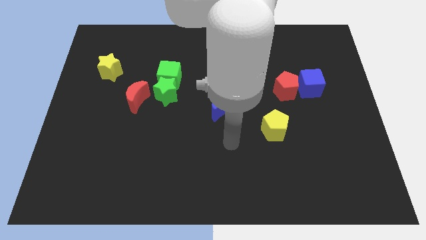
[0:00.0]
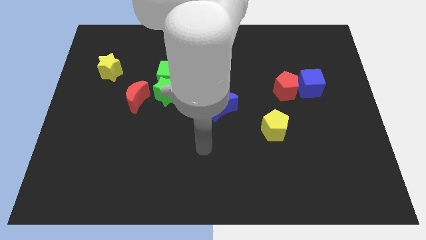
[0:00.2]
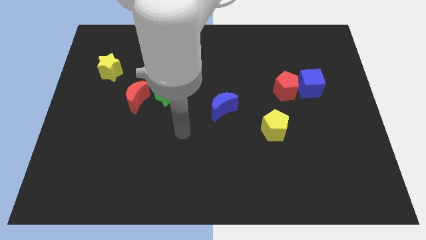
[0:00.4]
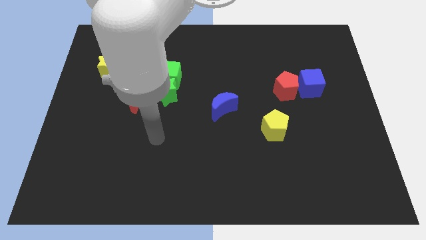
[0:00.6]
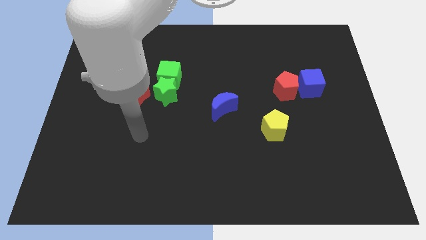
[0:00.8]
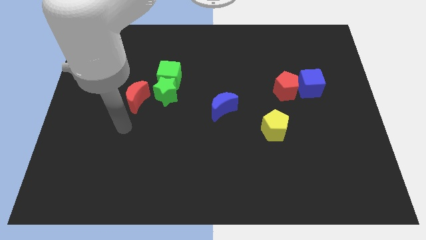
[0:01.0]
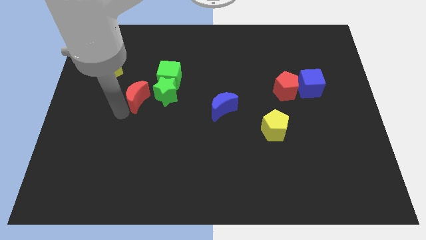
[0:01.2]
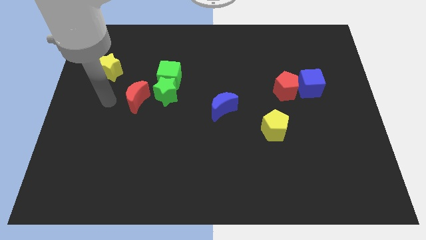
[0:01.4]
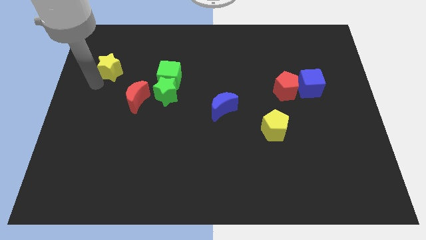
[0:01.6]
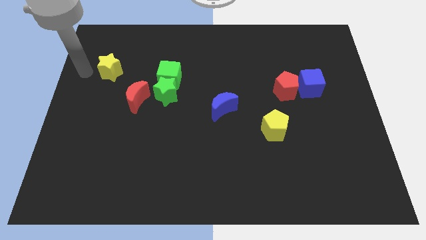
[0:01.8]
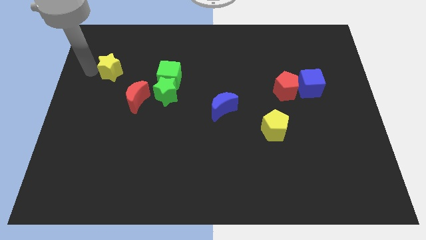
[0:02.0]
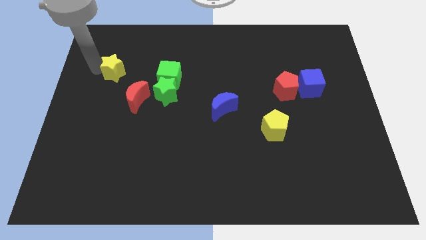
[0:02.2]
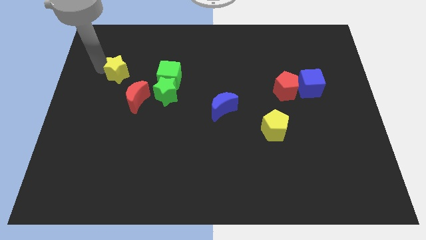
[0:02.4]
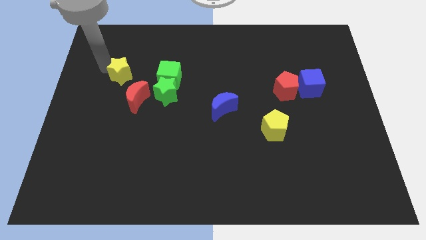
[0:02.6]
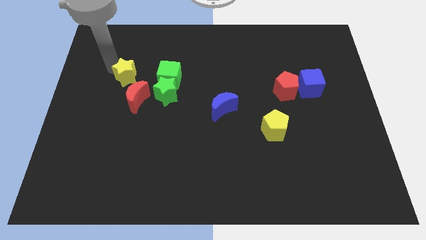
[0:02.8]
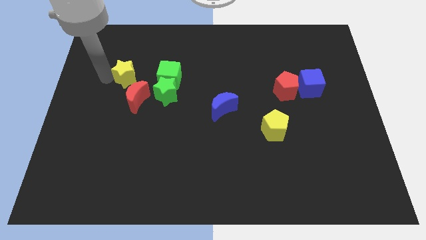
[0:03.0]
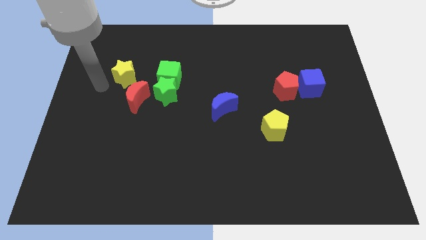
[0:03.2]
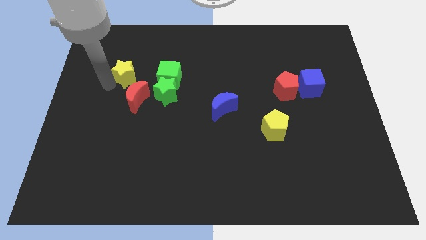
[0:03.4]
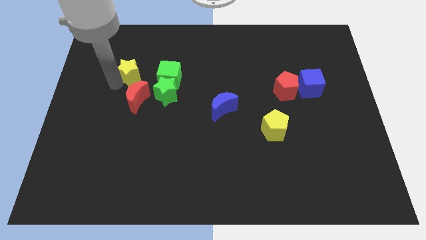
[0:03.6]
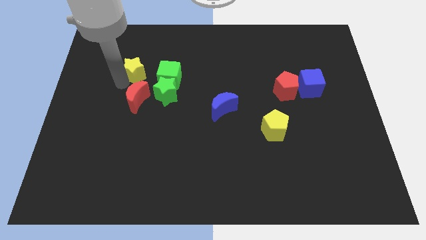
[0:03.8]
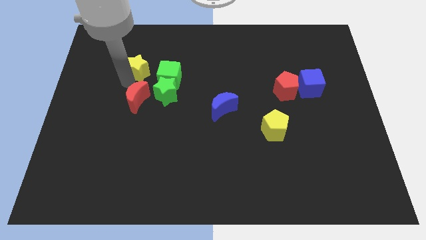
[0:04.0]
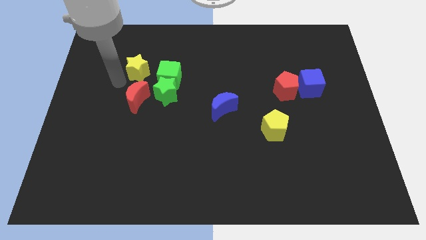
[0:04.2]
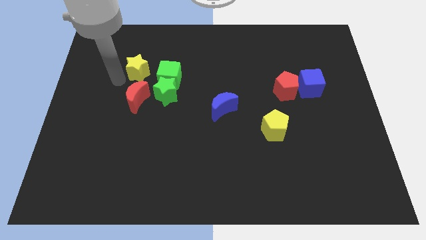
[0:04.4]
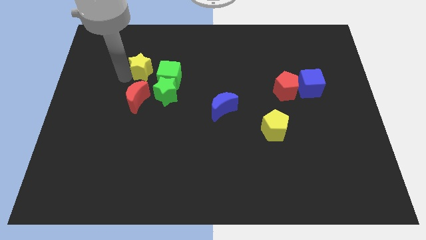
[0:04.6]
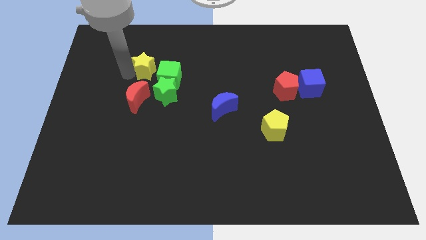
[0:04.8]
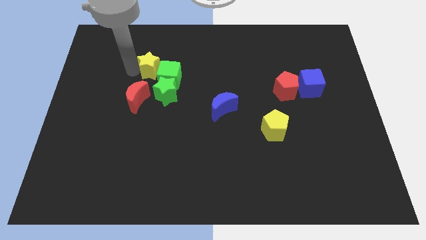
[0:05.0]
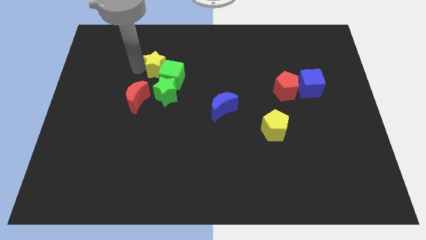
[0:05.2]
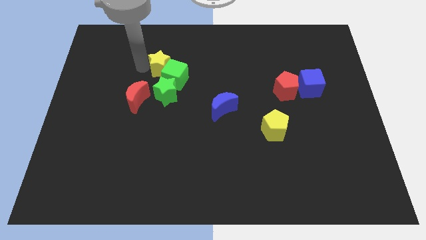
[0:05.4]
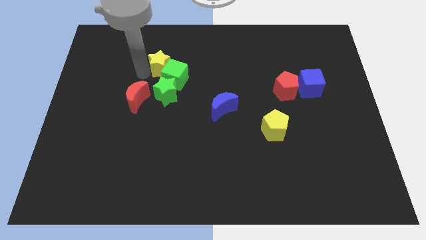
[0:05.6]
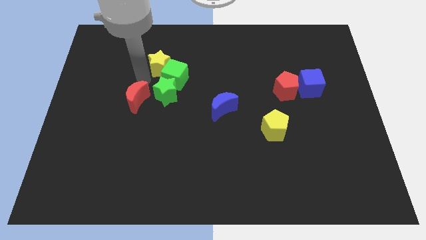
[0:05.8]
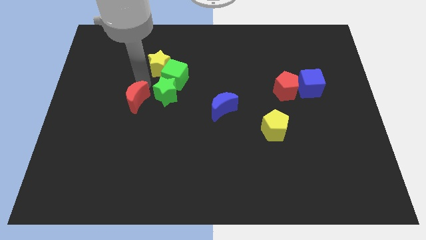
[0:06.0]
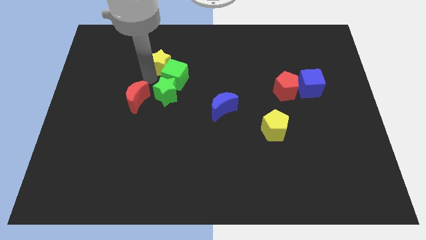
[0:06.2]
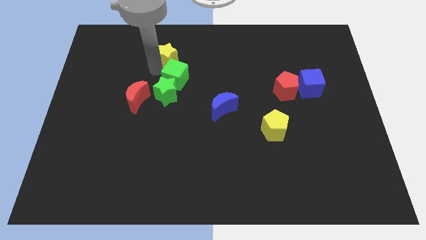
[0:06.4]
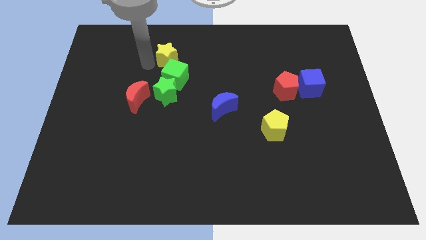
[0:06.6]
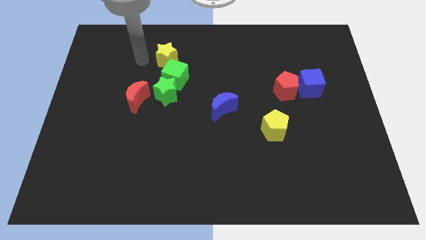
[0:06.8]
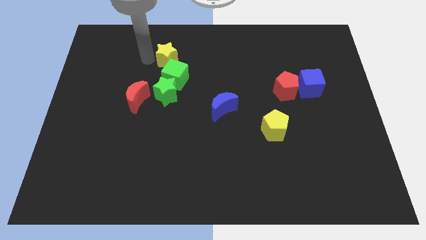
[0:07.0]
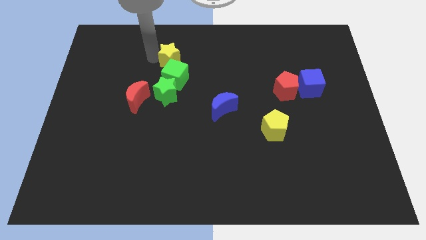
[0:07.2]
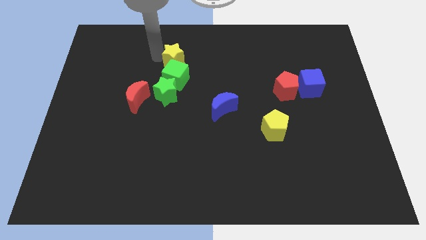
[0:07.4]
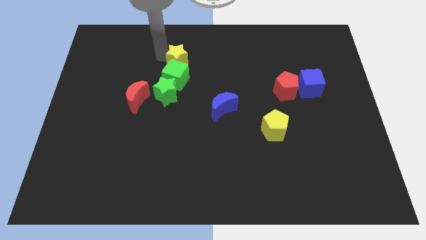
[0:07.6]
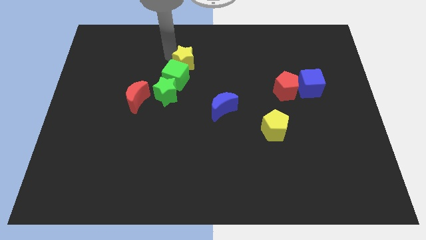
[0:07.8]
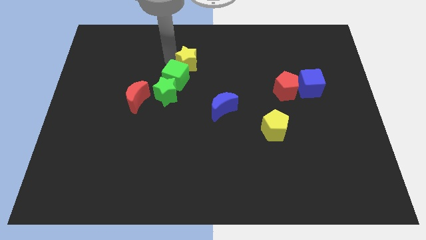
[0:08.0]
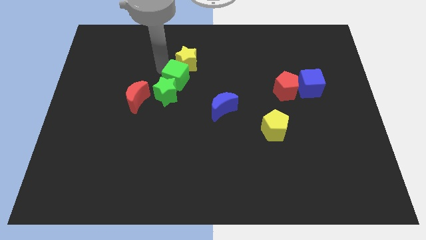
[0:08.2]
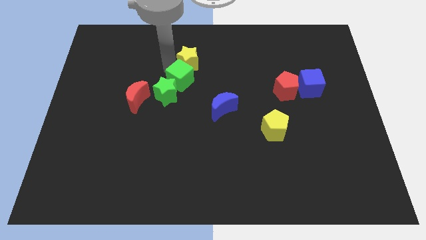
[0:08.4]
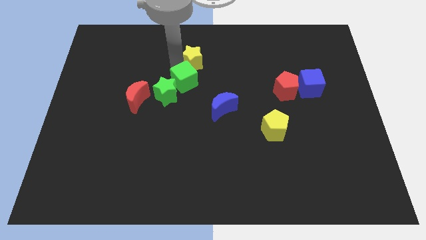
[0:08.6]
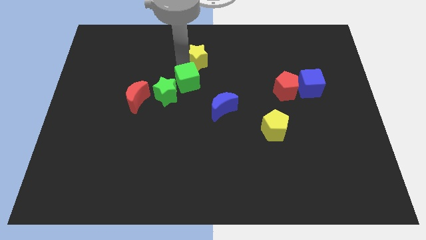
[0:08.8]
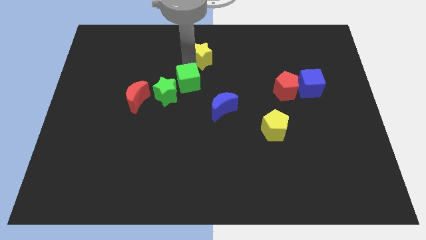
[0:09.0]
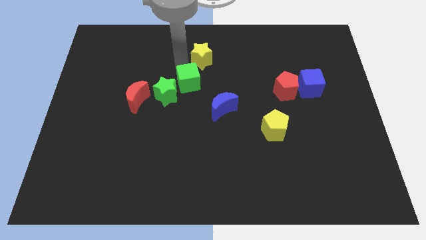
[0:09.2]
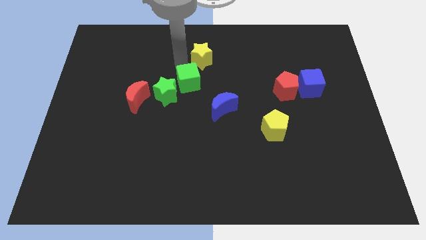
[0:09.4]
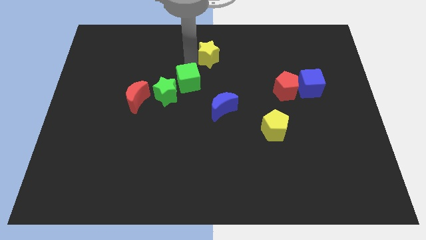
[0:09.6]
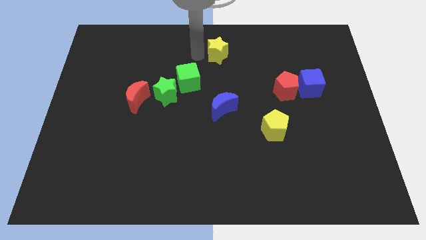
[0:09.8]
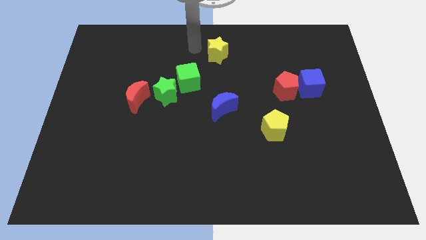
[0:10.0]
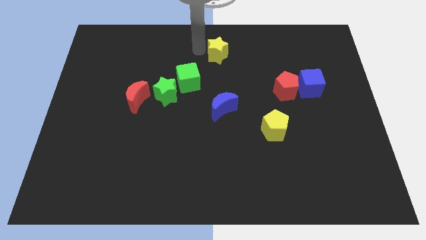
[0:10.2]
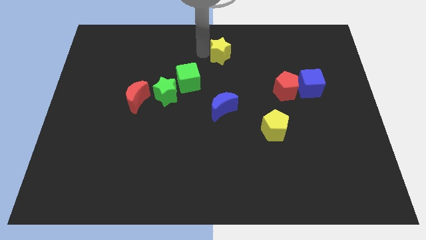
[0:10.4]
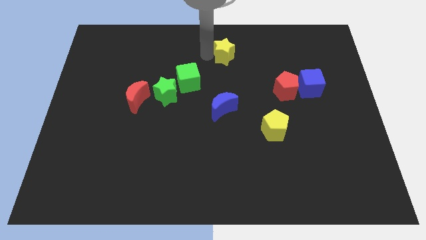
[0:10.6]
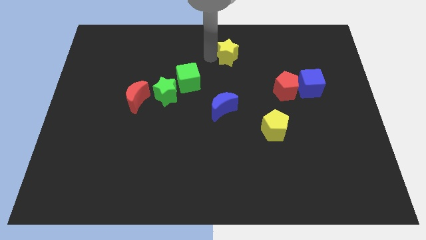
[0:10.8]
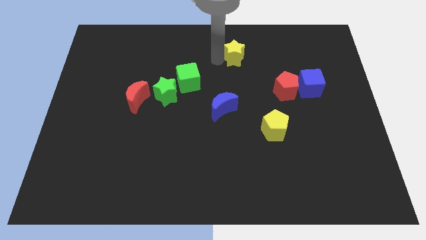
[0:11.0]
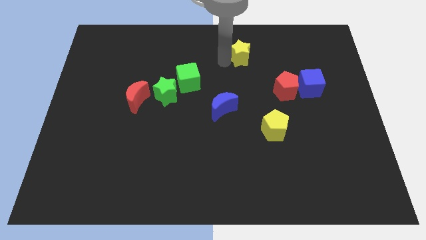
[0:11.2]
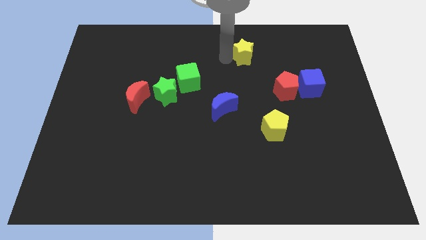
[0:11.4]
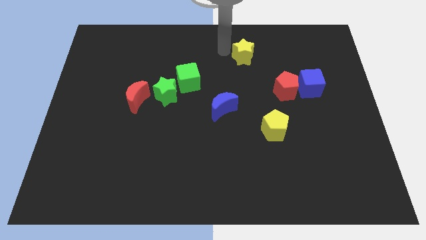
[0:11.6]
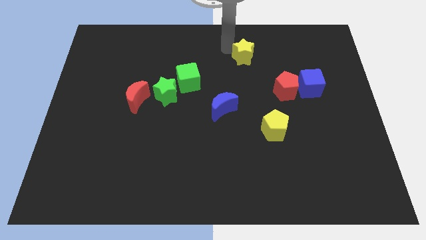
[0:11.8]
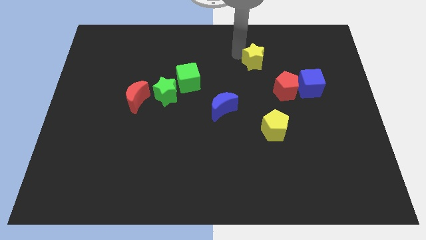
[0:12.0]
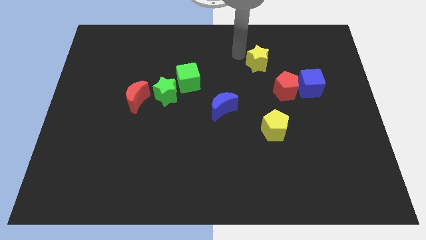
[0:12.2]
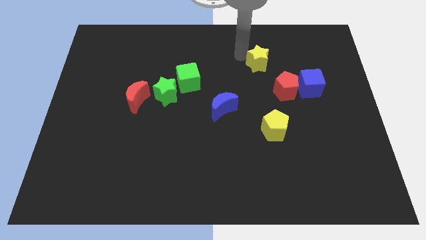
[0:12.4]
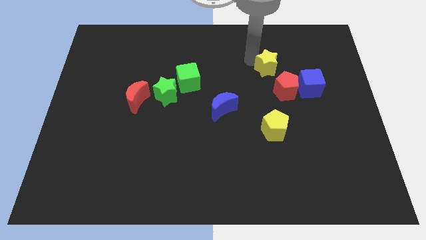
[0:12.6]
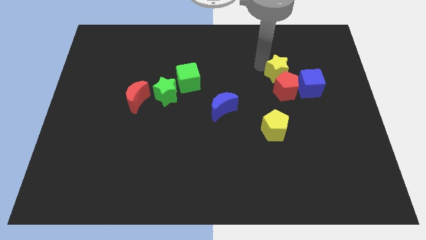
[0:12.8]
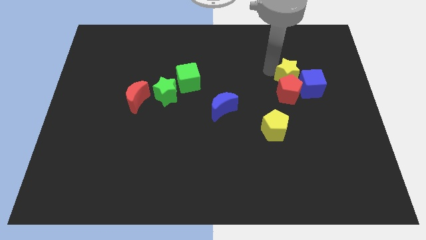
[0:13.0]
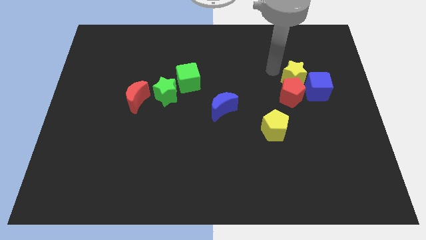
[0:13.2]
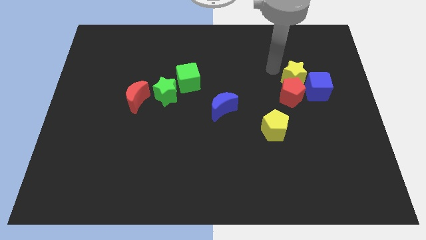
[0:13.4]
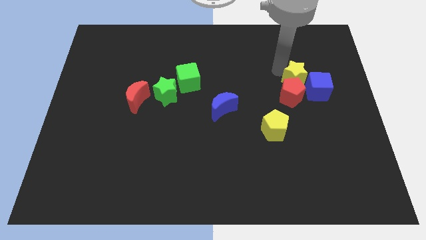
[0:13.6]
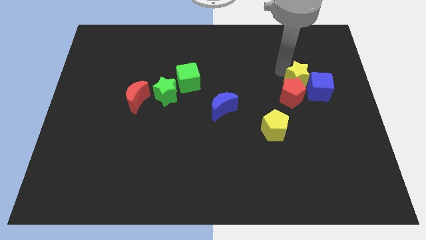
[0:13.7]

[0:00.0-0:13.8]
slide the yellow star to the blue cube

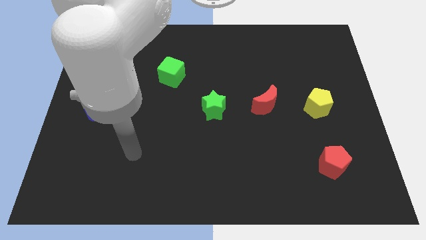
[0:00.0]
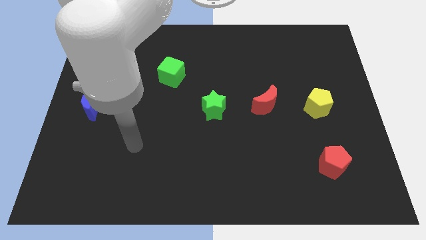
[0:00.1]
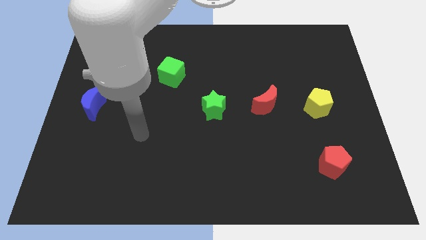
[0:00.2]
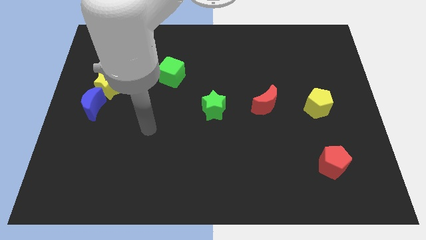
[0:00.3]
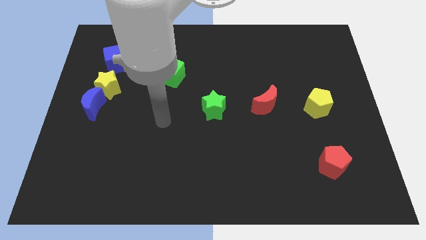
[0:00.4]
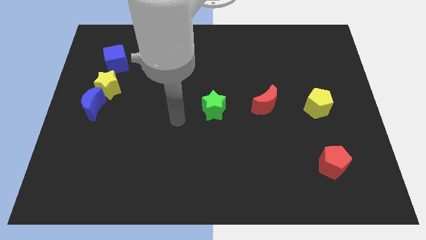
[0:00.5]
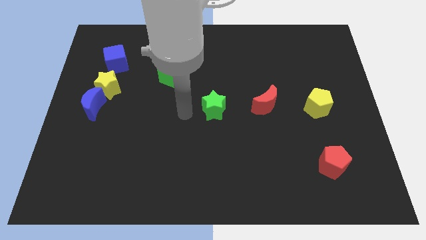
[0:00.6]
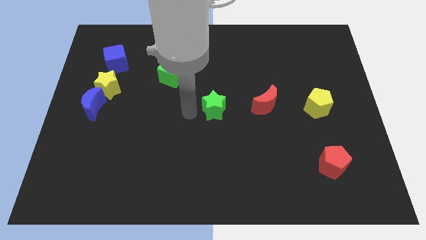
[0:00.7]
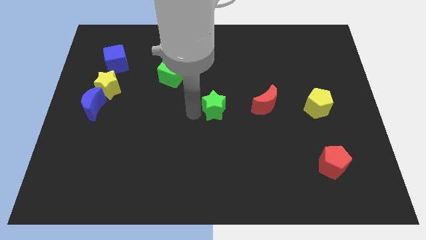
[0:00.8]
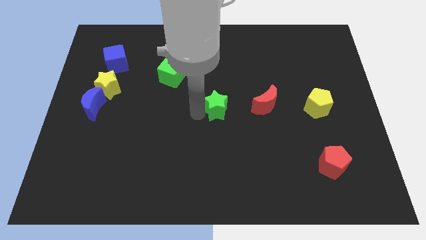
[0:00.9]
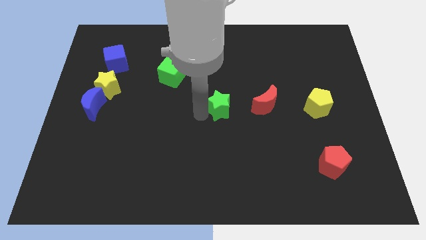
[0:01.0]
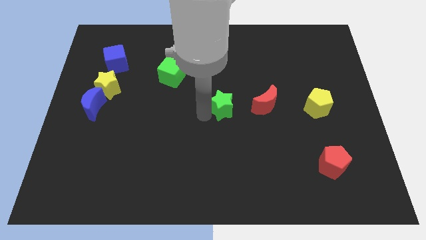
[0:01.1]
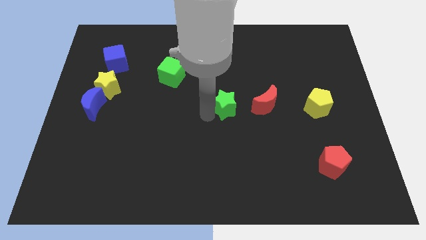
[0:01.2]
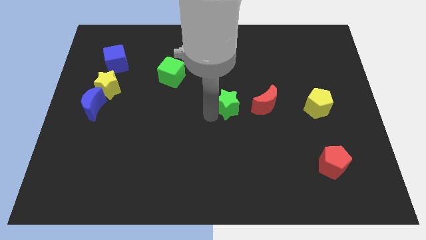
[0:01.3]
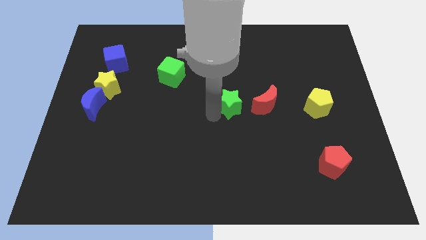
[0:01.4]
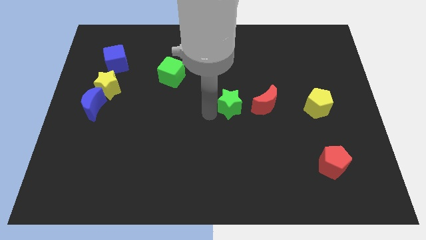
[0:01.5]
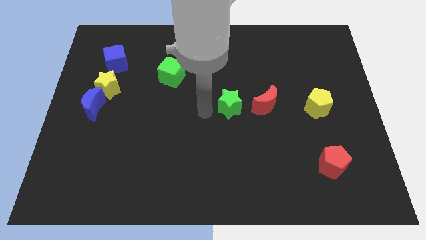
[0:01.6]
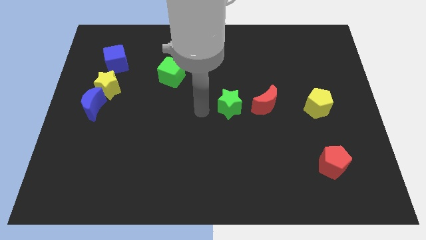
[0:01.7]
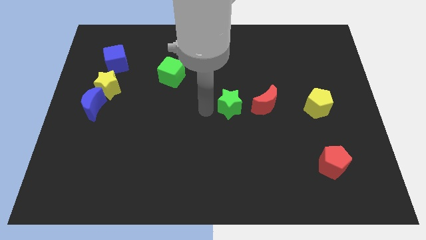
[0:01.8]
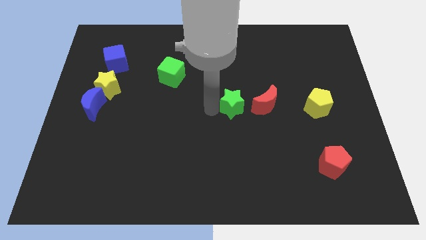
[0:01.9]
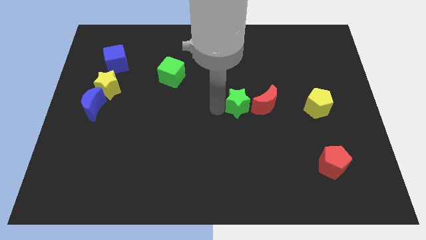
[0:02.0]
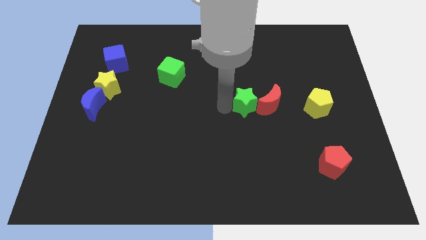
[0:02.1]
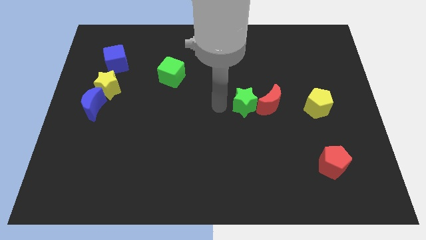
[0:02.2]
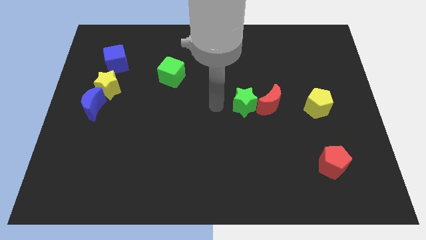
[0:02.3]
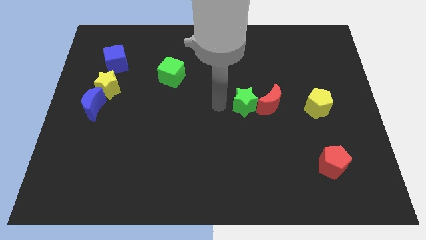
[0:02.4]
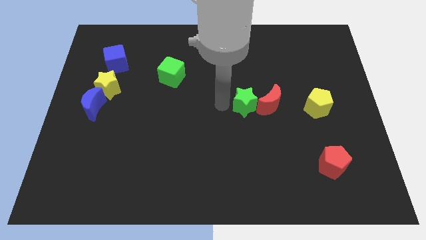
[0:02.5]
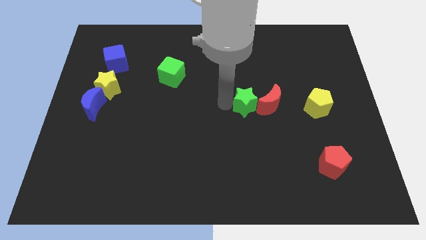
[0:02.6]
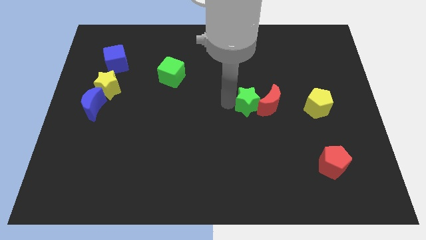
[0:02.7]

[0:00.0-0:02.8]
push the green star to the red moon
